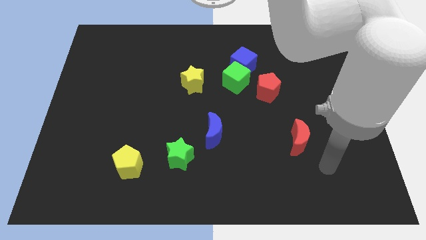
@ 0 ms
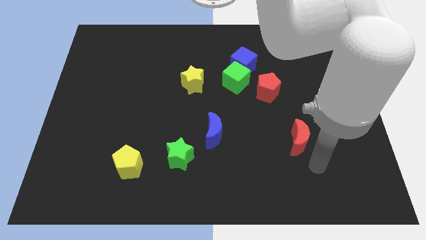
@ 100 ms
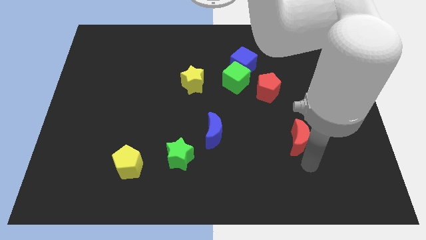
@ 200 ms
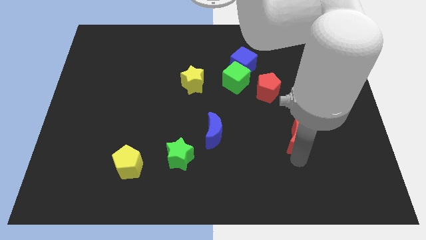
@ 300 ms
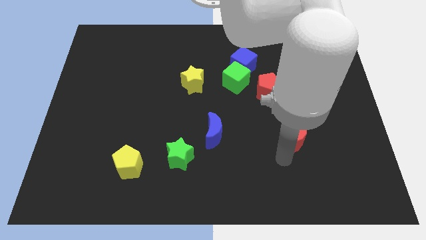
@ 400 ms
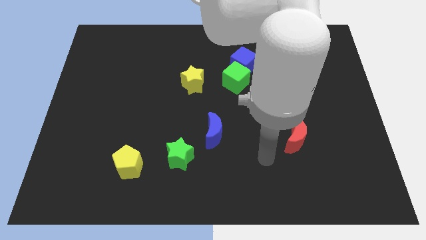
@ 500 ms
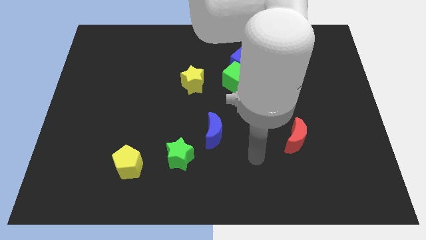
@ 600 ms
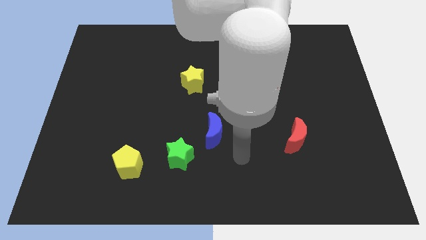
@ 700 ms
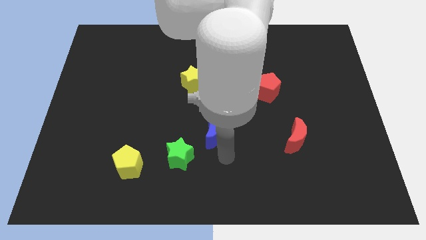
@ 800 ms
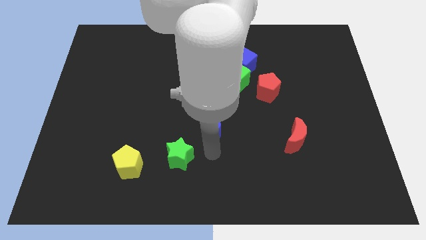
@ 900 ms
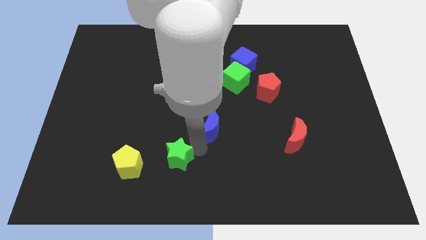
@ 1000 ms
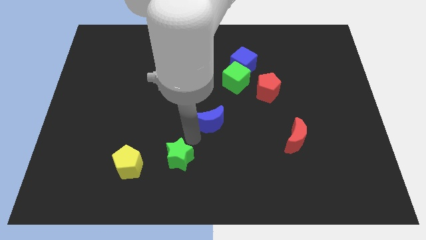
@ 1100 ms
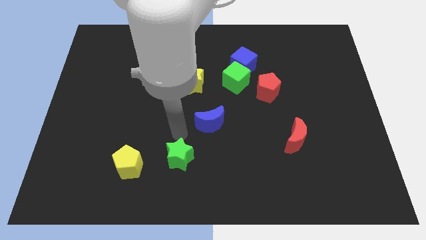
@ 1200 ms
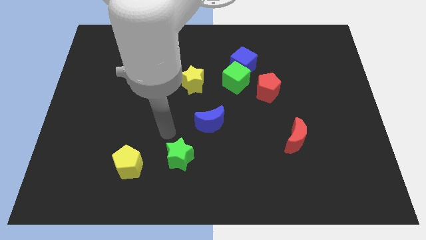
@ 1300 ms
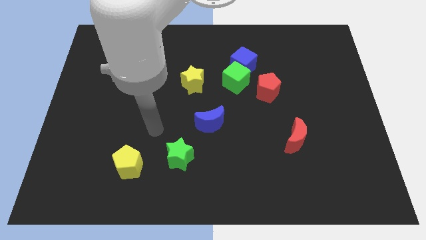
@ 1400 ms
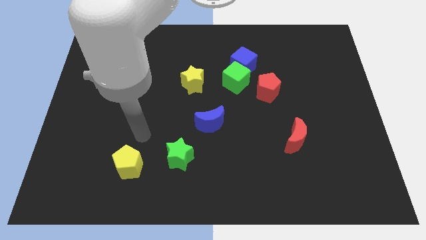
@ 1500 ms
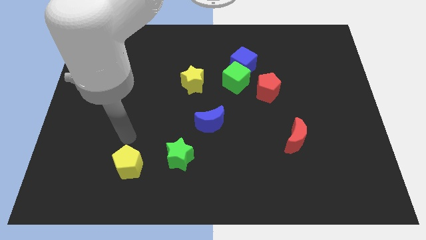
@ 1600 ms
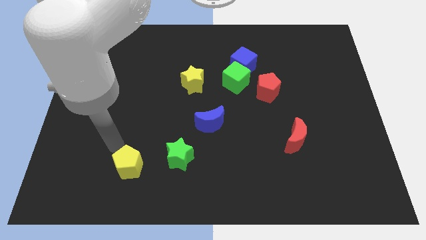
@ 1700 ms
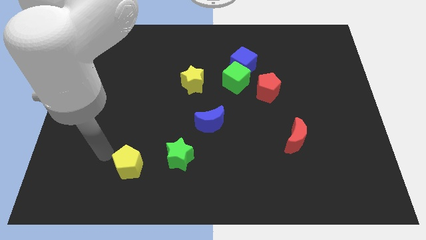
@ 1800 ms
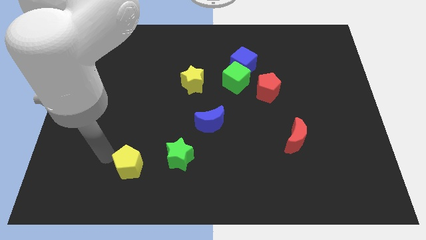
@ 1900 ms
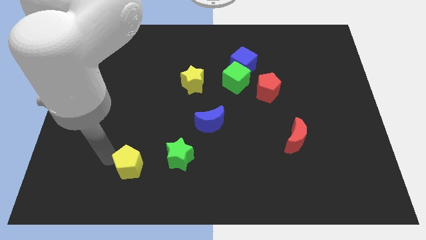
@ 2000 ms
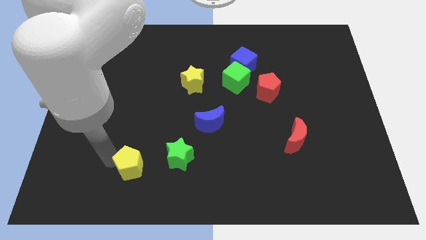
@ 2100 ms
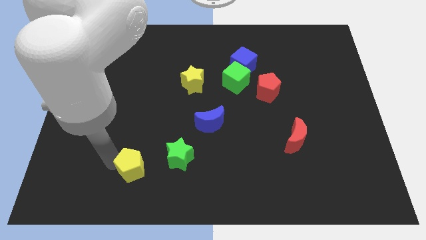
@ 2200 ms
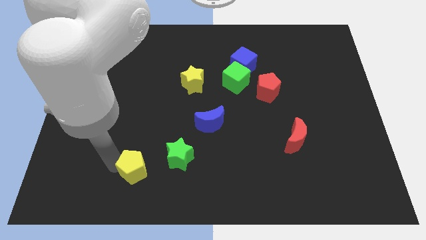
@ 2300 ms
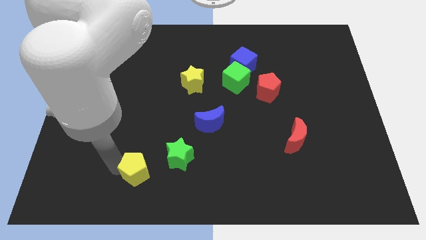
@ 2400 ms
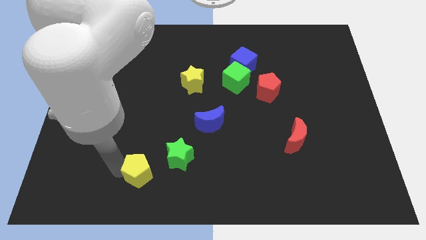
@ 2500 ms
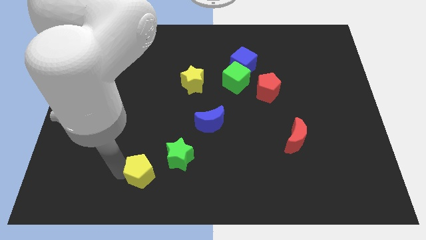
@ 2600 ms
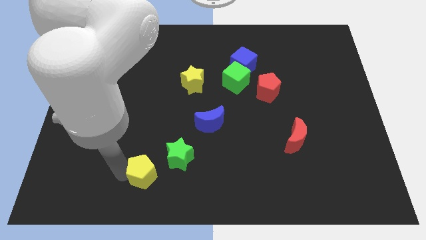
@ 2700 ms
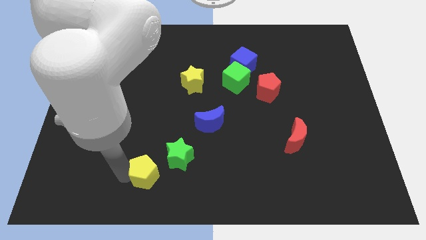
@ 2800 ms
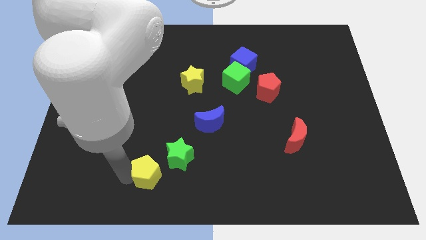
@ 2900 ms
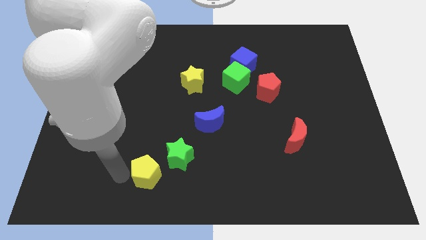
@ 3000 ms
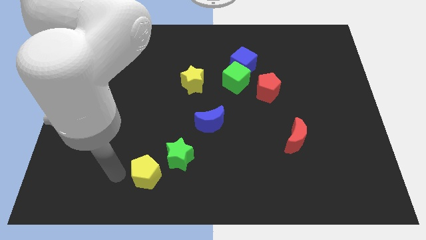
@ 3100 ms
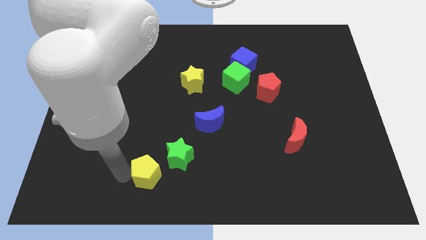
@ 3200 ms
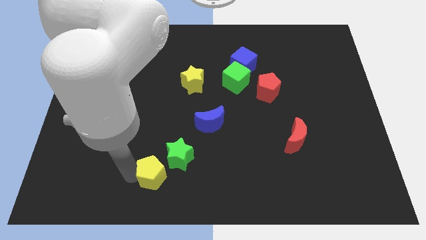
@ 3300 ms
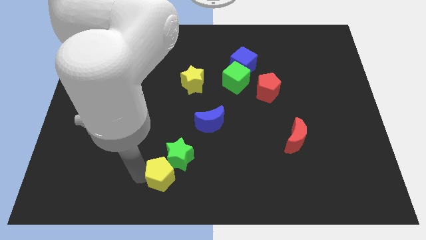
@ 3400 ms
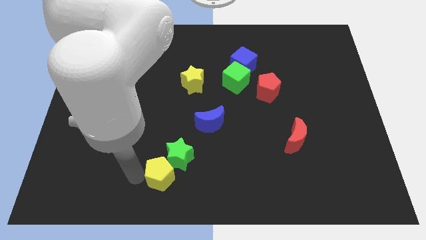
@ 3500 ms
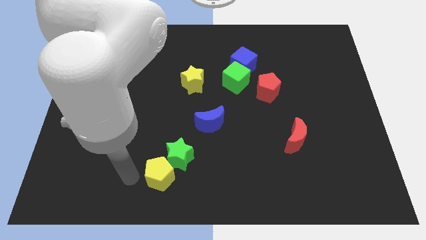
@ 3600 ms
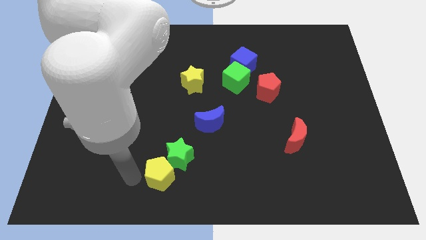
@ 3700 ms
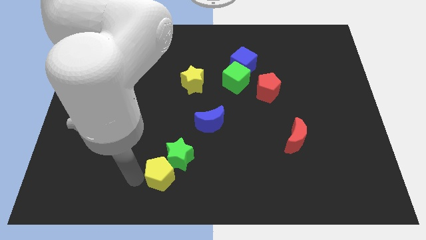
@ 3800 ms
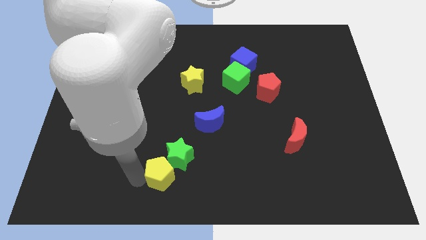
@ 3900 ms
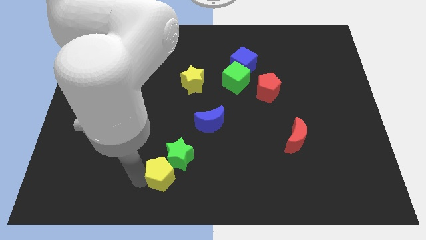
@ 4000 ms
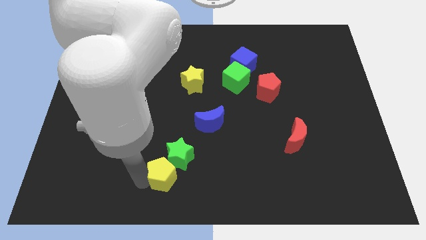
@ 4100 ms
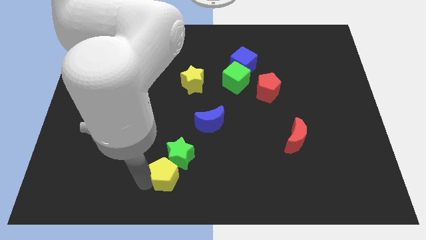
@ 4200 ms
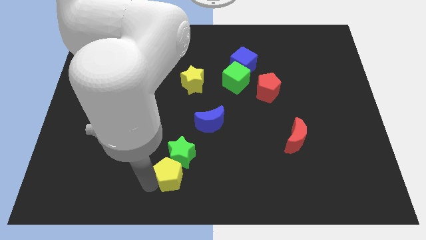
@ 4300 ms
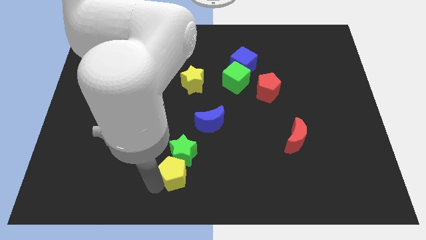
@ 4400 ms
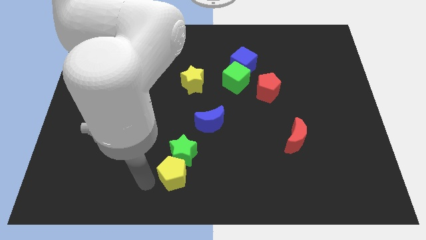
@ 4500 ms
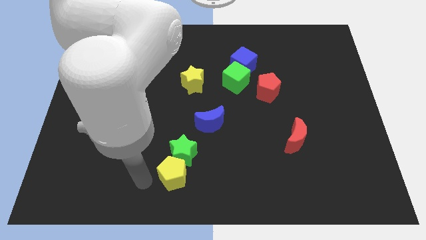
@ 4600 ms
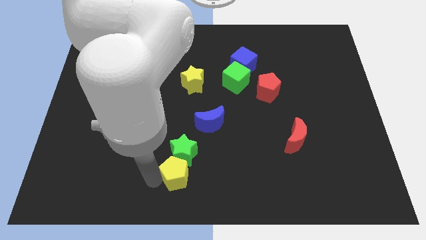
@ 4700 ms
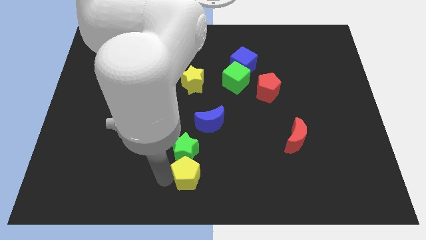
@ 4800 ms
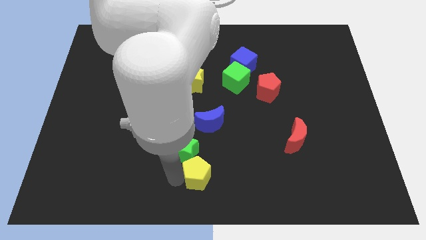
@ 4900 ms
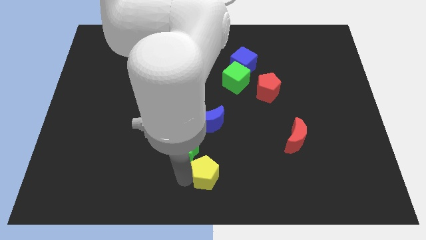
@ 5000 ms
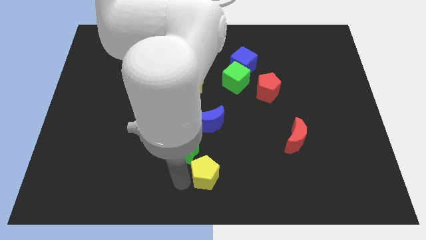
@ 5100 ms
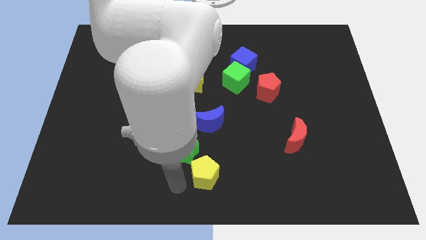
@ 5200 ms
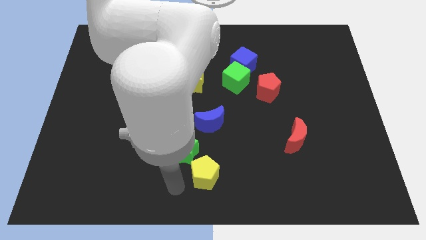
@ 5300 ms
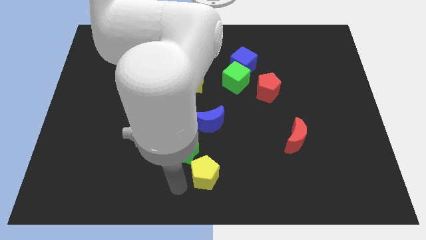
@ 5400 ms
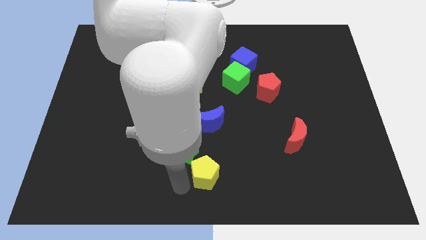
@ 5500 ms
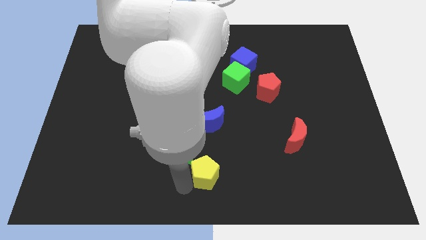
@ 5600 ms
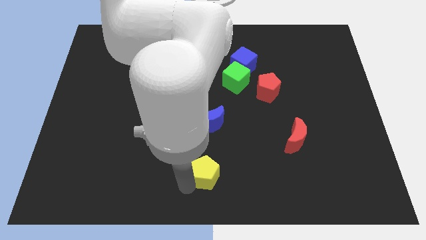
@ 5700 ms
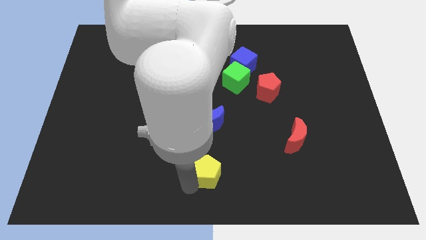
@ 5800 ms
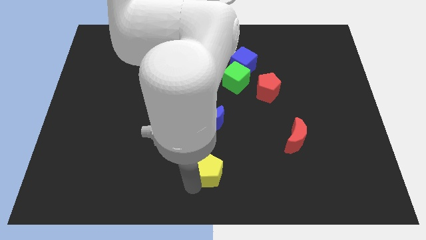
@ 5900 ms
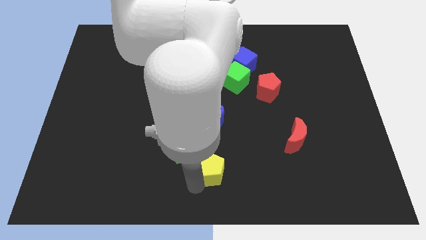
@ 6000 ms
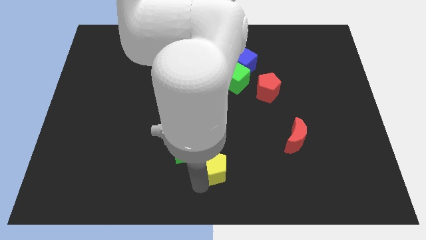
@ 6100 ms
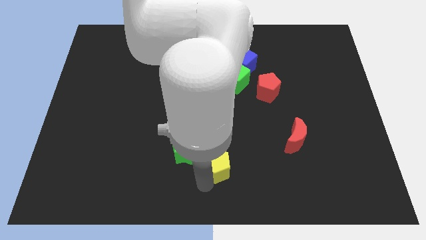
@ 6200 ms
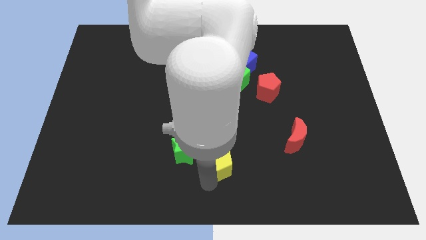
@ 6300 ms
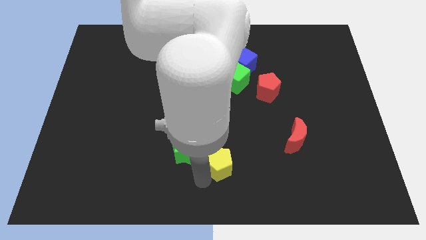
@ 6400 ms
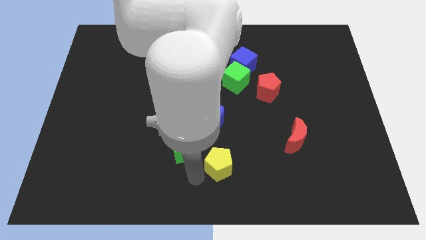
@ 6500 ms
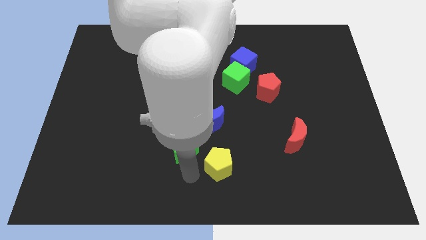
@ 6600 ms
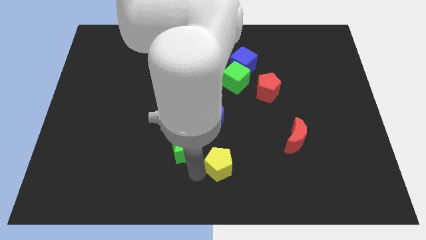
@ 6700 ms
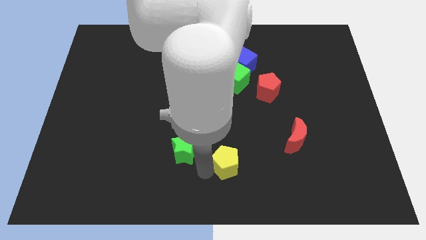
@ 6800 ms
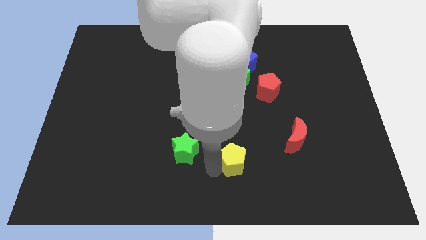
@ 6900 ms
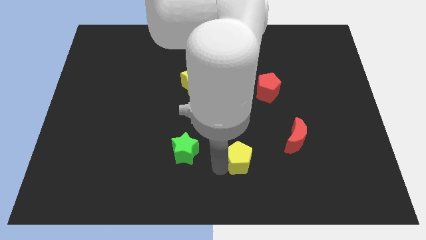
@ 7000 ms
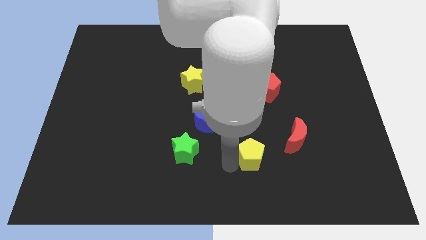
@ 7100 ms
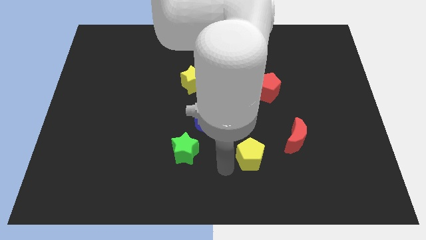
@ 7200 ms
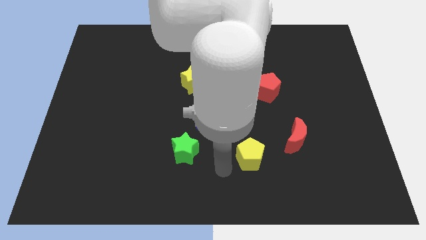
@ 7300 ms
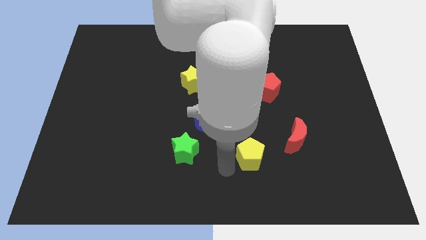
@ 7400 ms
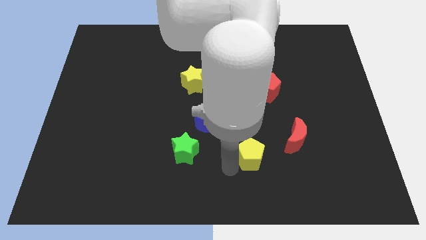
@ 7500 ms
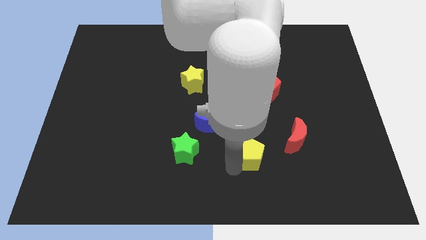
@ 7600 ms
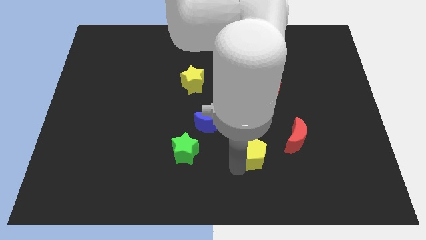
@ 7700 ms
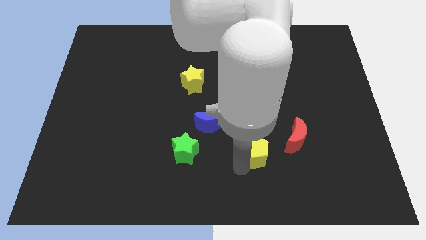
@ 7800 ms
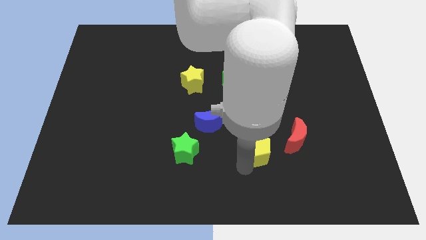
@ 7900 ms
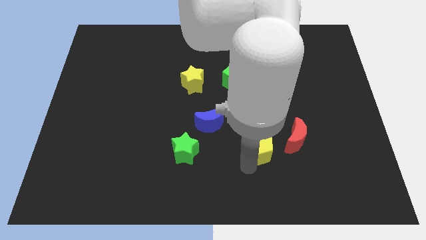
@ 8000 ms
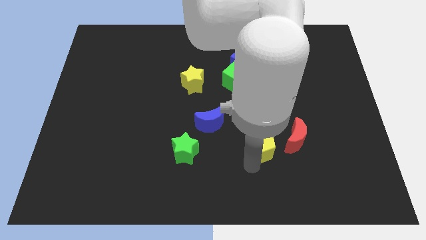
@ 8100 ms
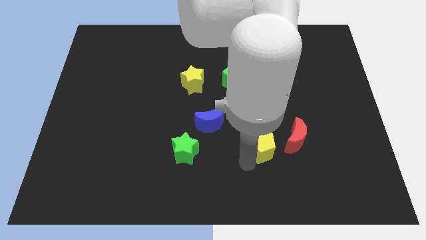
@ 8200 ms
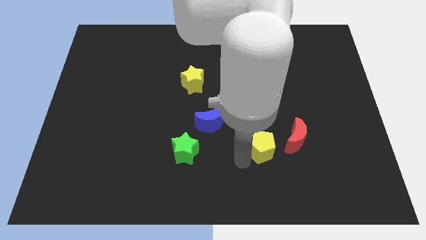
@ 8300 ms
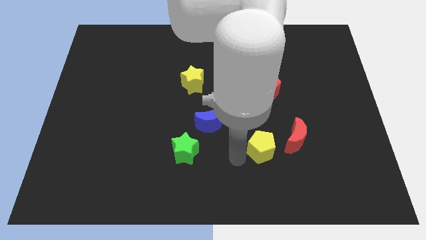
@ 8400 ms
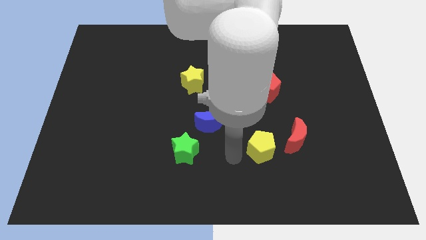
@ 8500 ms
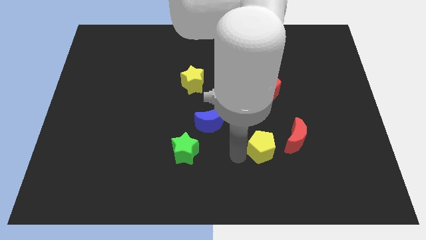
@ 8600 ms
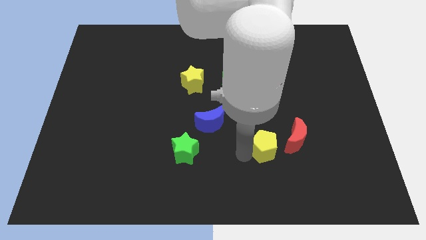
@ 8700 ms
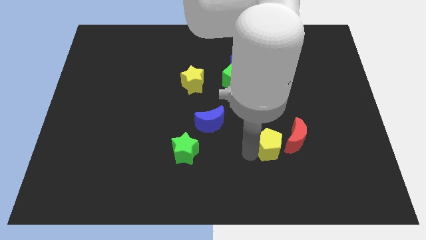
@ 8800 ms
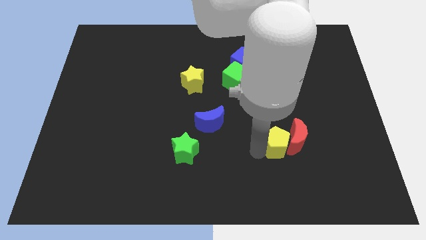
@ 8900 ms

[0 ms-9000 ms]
move the yellow pentagon close to the red moon
